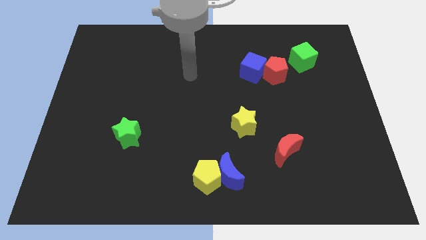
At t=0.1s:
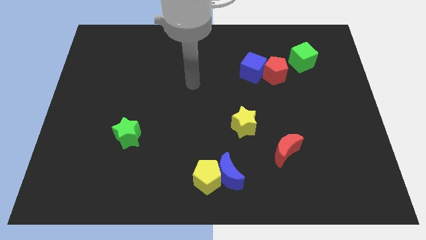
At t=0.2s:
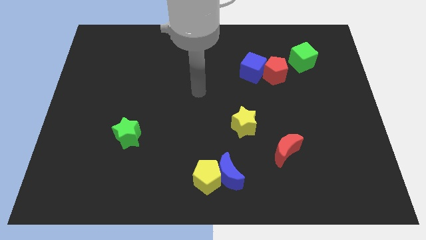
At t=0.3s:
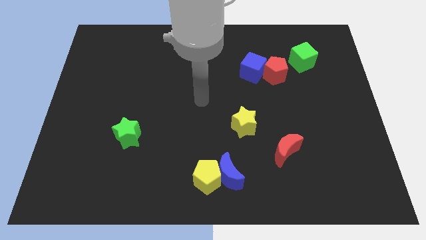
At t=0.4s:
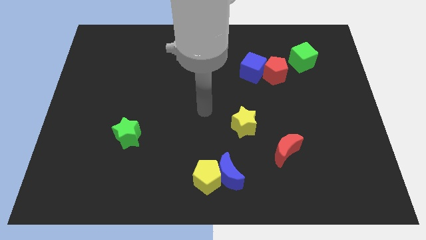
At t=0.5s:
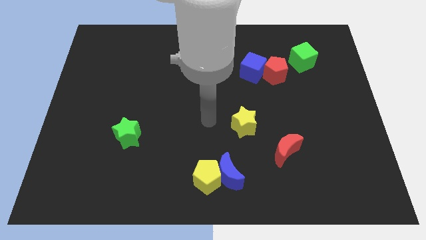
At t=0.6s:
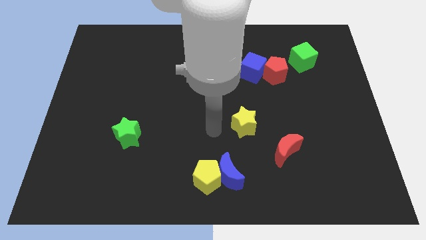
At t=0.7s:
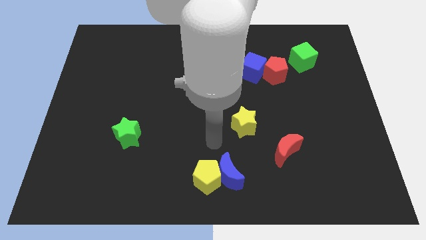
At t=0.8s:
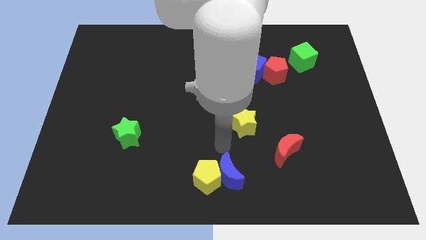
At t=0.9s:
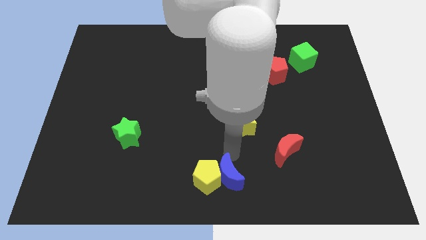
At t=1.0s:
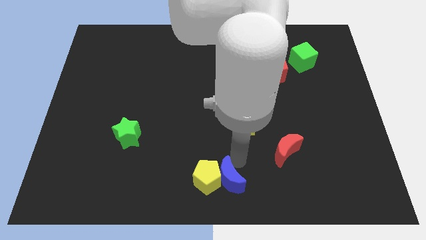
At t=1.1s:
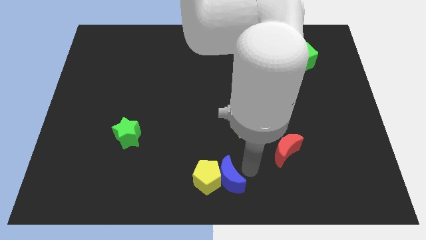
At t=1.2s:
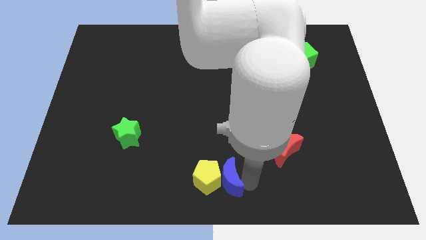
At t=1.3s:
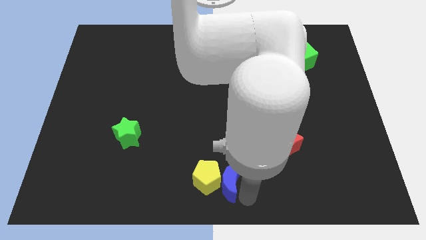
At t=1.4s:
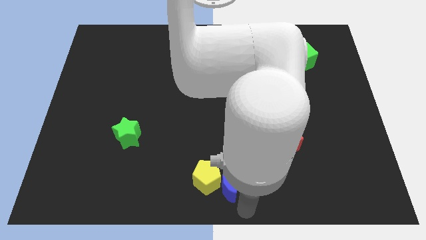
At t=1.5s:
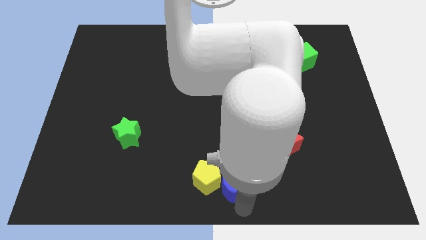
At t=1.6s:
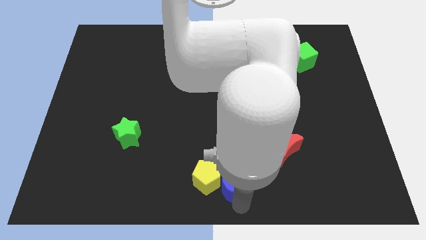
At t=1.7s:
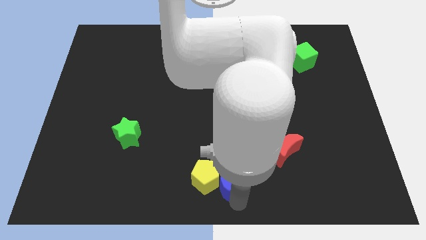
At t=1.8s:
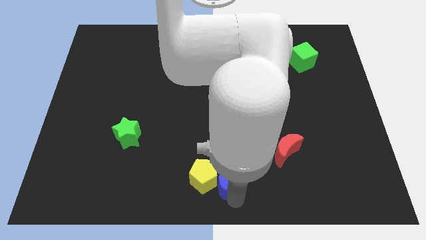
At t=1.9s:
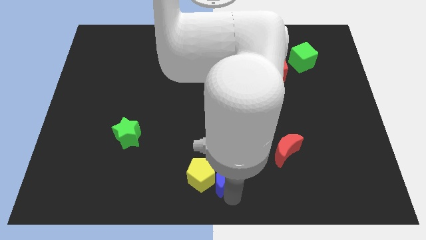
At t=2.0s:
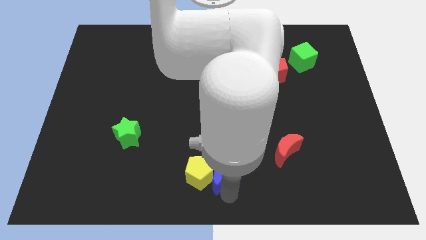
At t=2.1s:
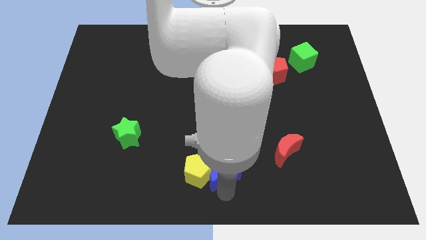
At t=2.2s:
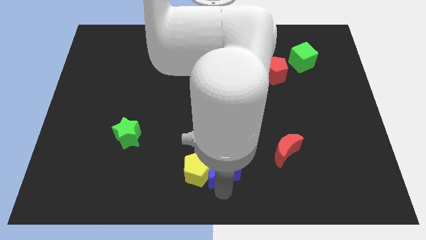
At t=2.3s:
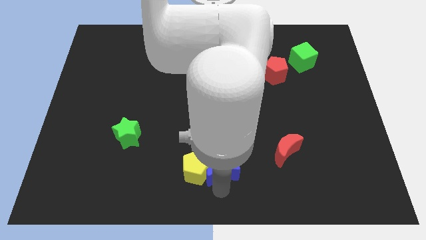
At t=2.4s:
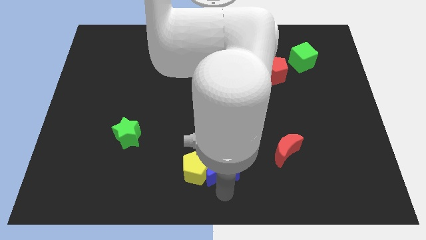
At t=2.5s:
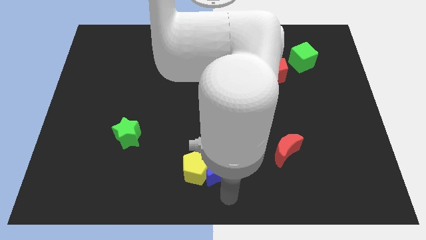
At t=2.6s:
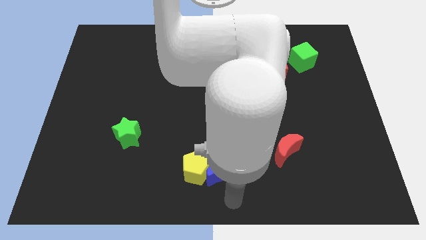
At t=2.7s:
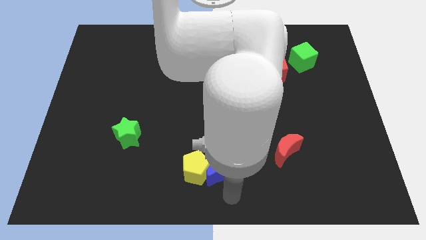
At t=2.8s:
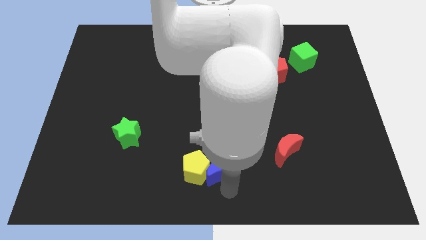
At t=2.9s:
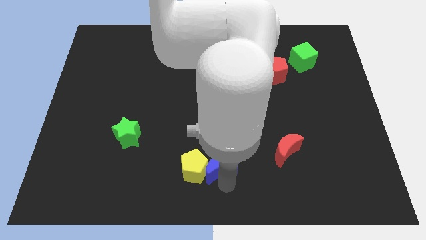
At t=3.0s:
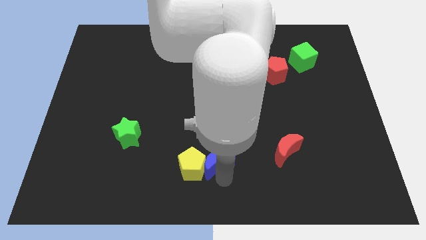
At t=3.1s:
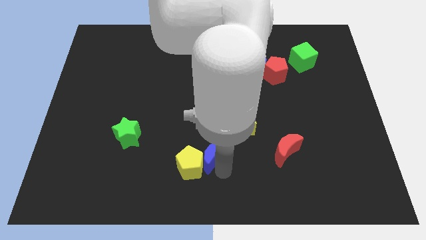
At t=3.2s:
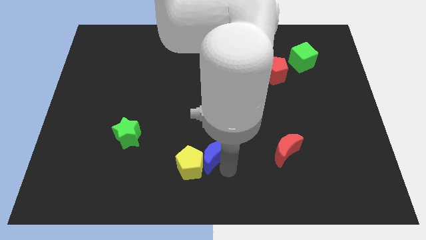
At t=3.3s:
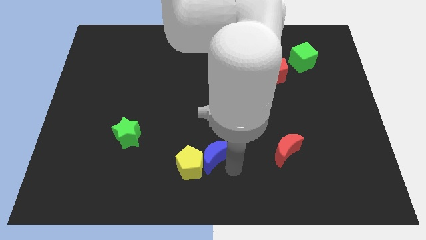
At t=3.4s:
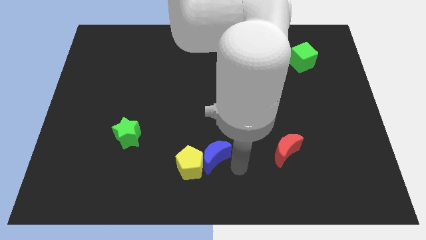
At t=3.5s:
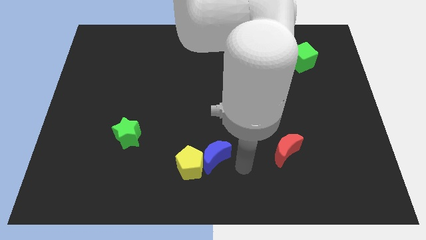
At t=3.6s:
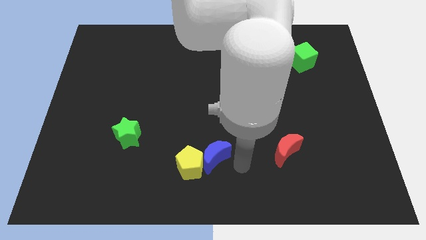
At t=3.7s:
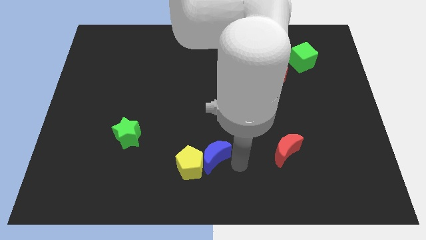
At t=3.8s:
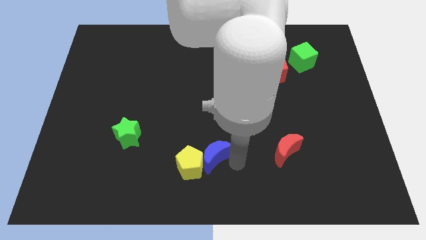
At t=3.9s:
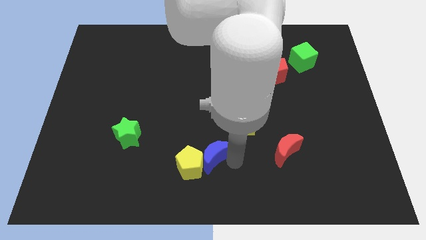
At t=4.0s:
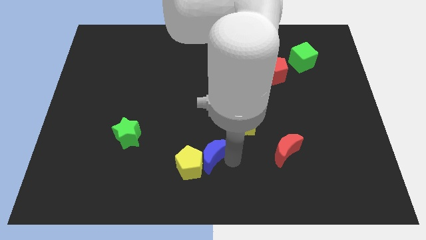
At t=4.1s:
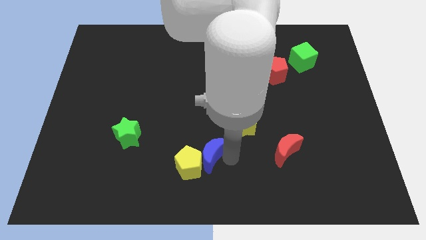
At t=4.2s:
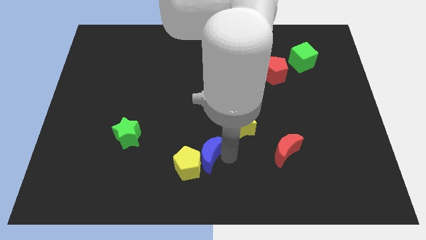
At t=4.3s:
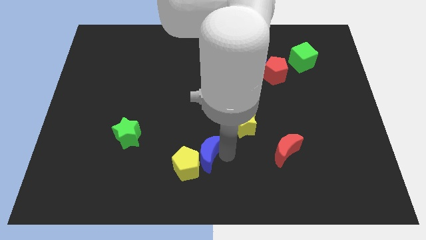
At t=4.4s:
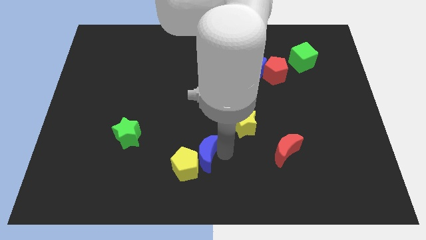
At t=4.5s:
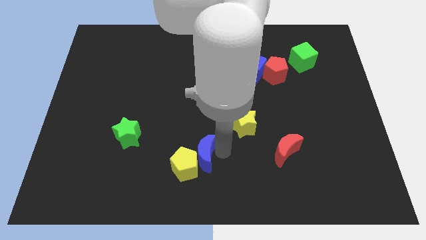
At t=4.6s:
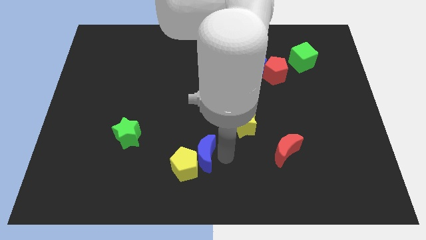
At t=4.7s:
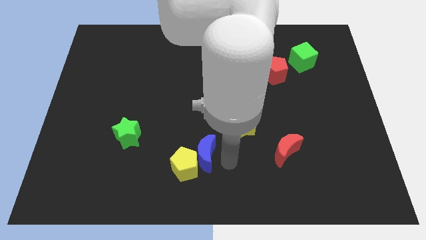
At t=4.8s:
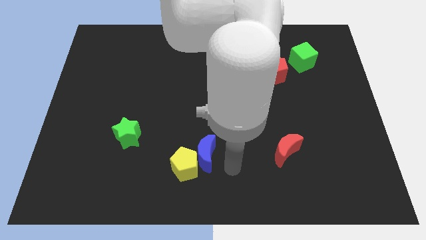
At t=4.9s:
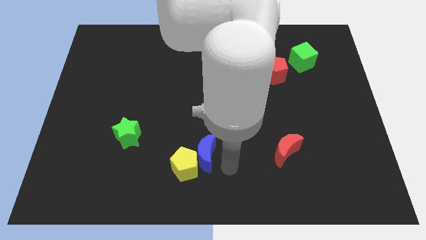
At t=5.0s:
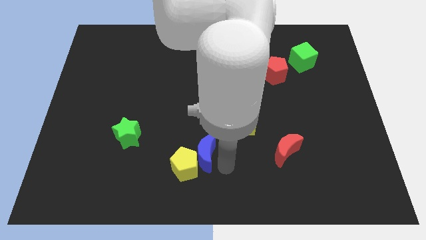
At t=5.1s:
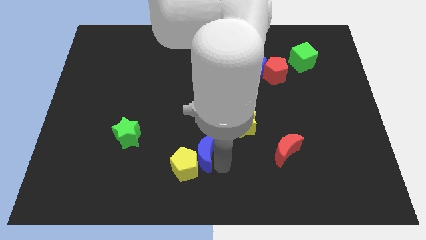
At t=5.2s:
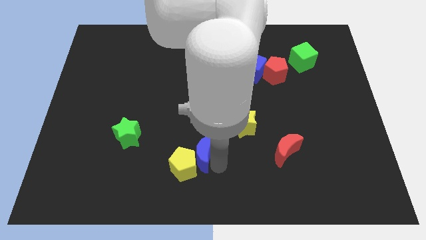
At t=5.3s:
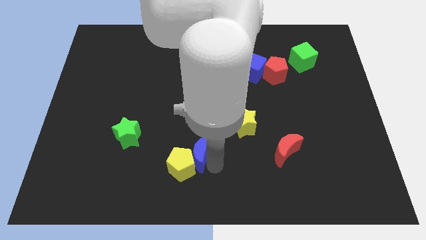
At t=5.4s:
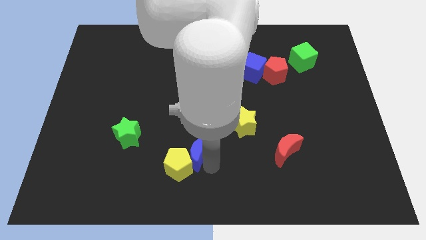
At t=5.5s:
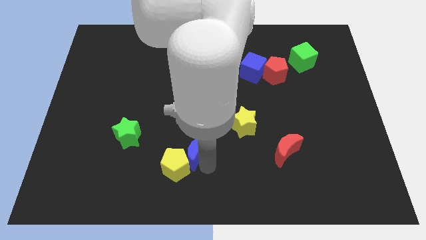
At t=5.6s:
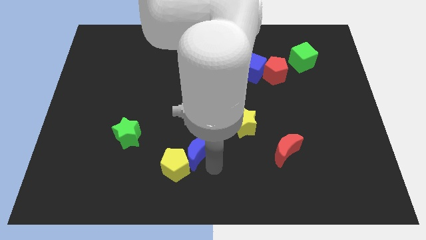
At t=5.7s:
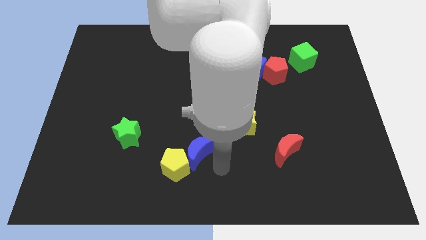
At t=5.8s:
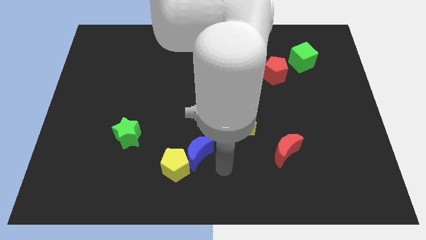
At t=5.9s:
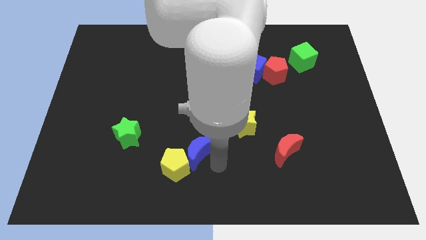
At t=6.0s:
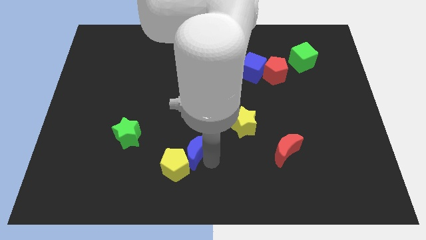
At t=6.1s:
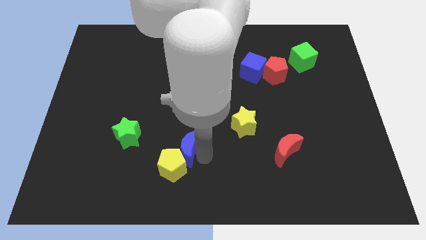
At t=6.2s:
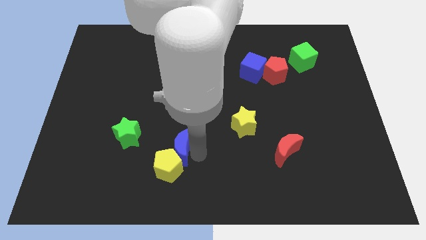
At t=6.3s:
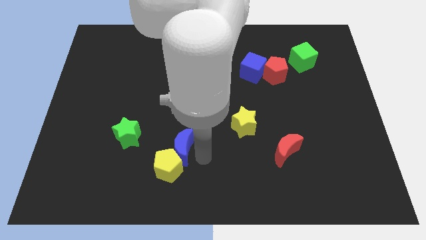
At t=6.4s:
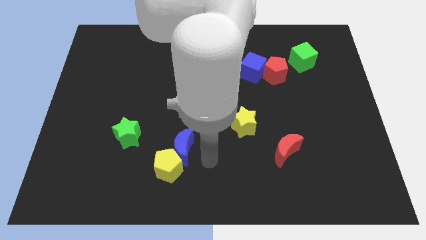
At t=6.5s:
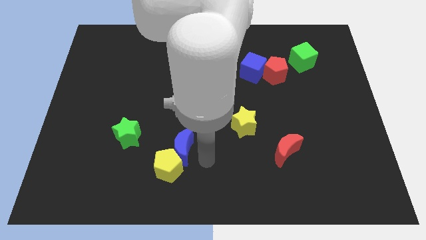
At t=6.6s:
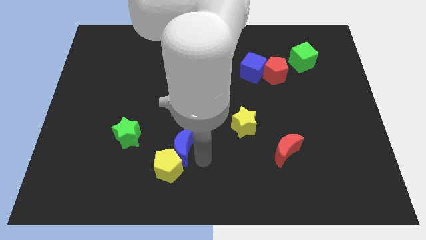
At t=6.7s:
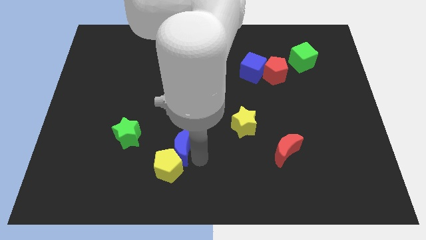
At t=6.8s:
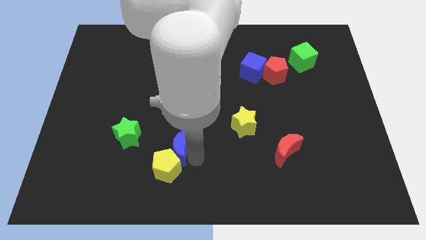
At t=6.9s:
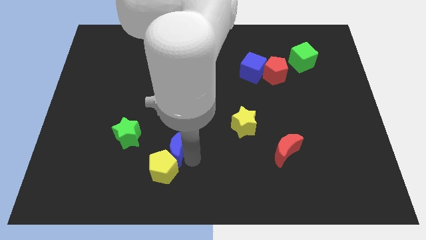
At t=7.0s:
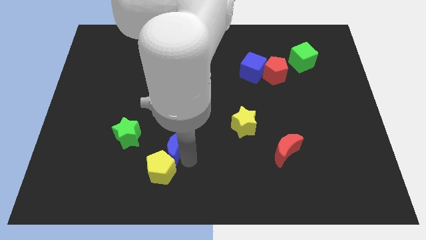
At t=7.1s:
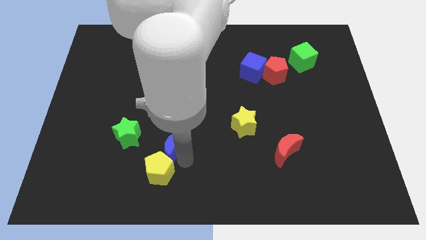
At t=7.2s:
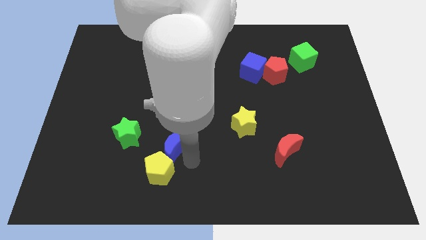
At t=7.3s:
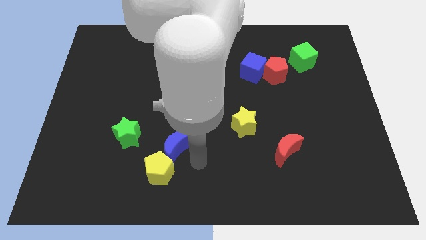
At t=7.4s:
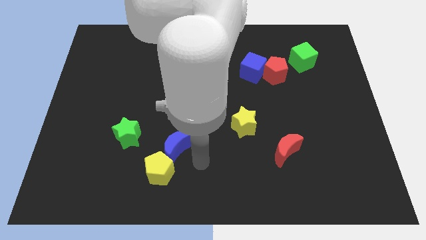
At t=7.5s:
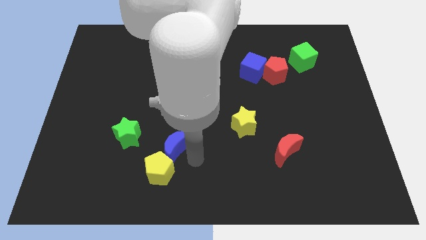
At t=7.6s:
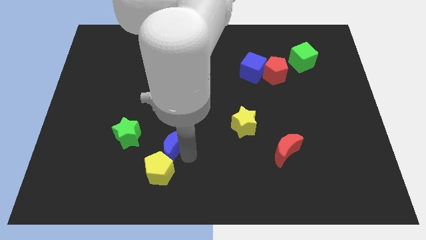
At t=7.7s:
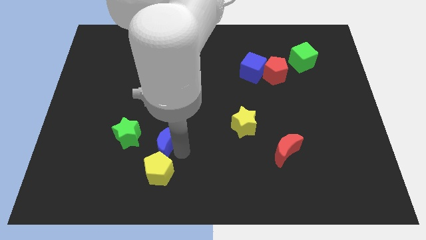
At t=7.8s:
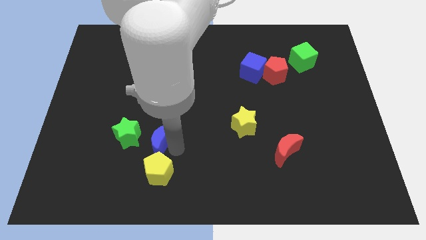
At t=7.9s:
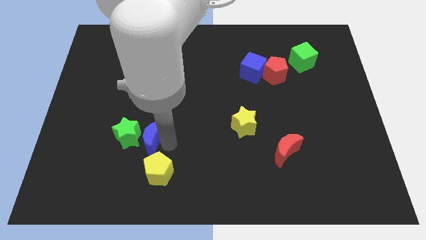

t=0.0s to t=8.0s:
move the blue moon next to the green star
